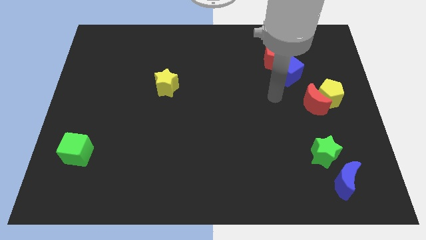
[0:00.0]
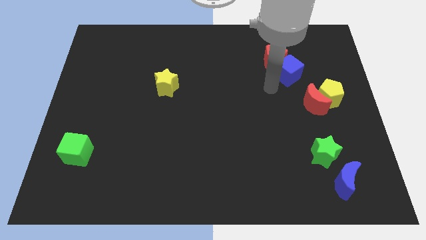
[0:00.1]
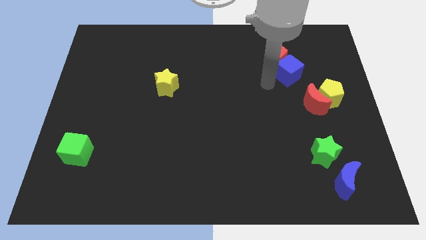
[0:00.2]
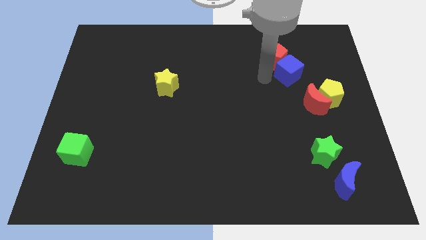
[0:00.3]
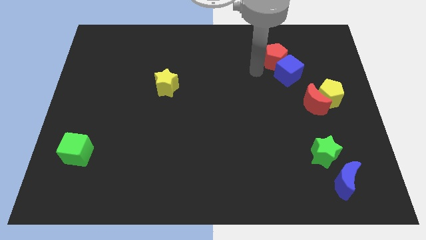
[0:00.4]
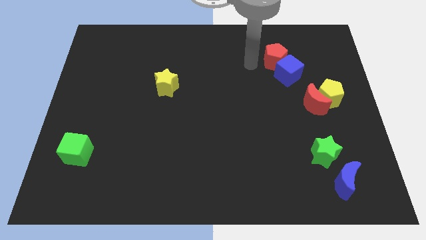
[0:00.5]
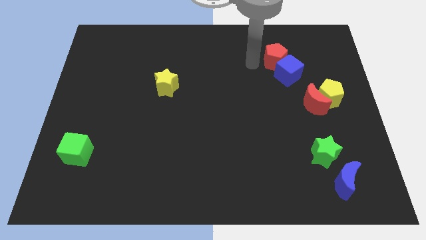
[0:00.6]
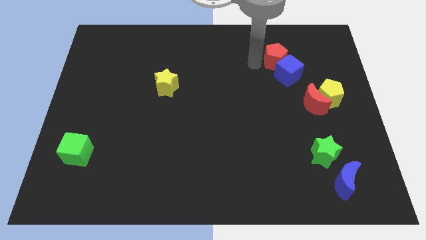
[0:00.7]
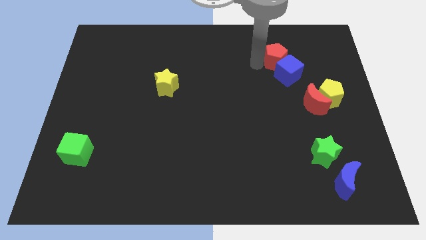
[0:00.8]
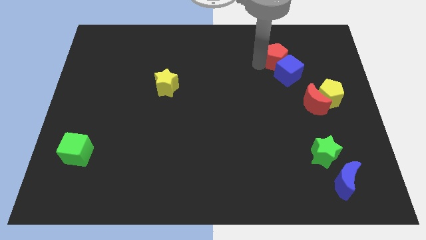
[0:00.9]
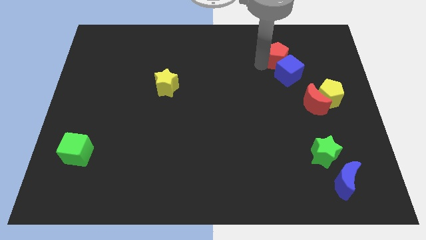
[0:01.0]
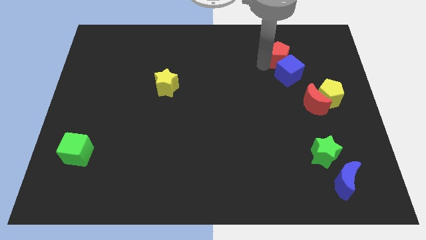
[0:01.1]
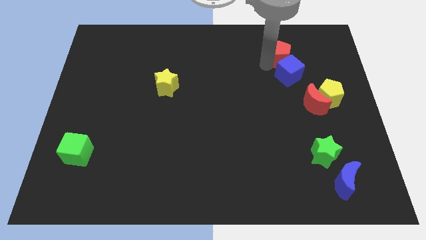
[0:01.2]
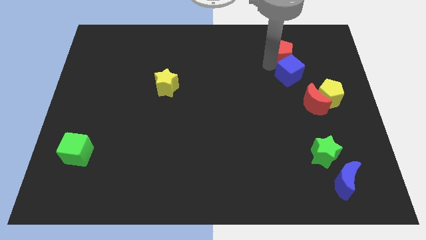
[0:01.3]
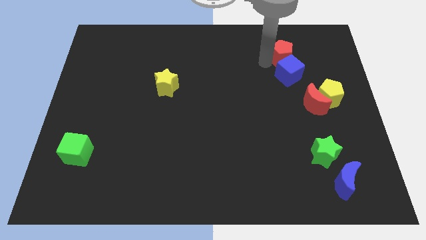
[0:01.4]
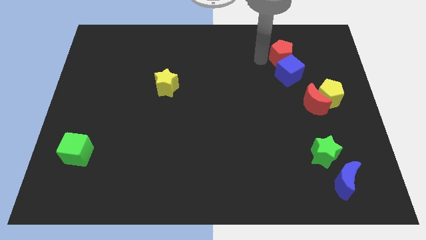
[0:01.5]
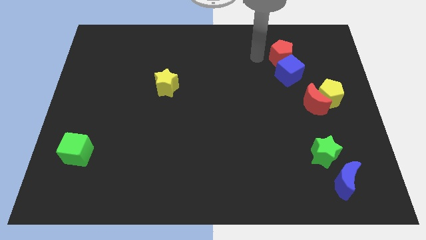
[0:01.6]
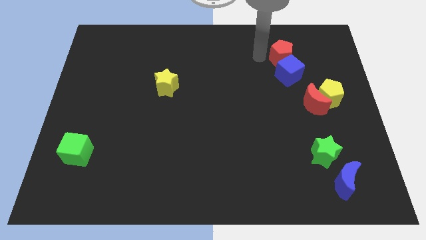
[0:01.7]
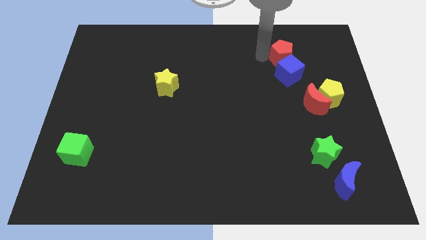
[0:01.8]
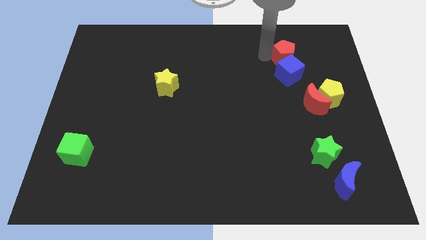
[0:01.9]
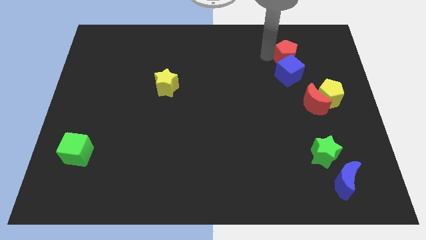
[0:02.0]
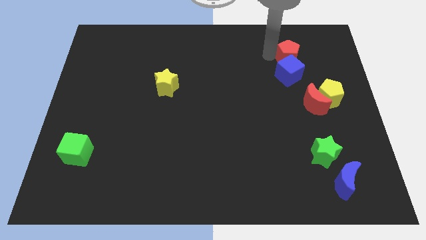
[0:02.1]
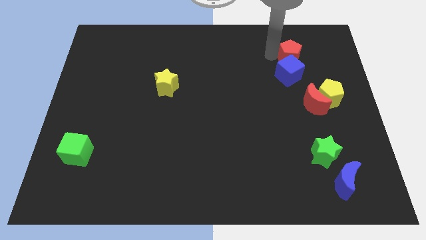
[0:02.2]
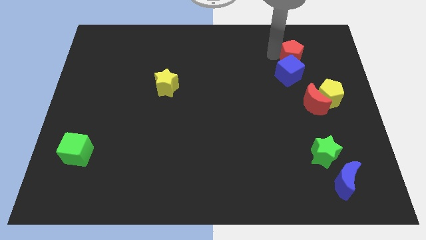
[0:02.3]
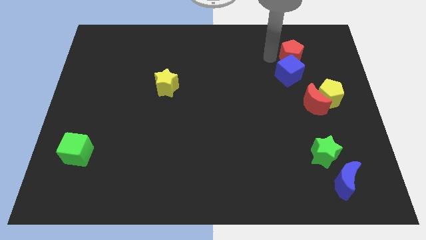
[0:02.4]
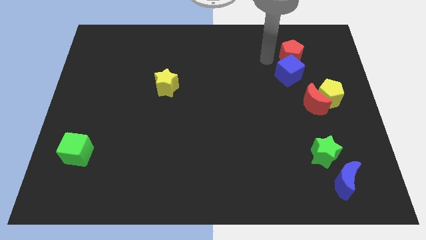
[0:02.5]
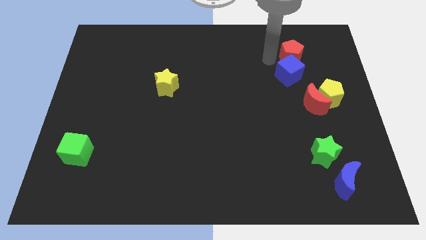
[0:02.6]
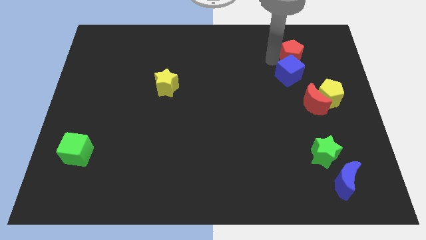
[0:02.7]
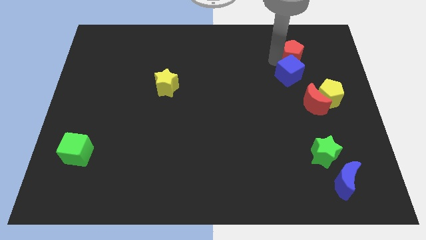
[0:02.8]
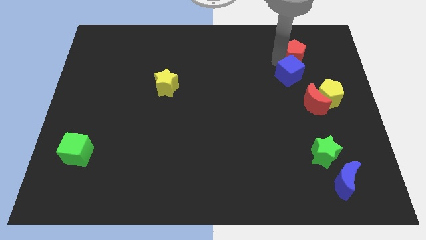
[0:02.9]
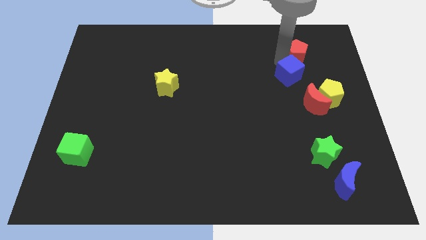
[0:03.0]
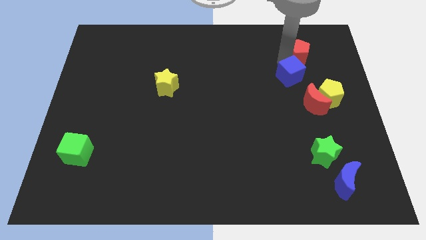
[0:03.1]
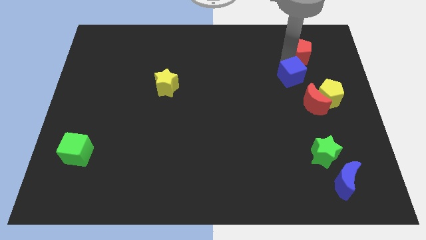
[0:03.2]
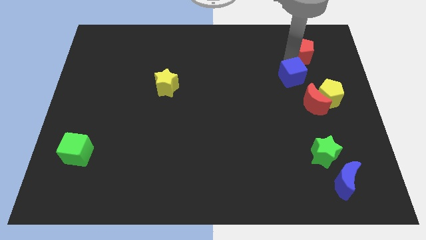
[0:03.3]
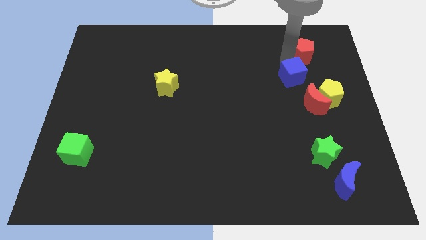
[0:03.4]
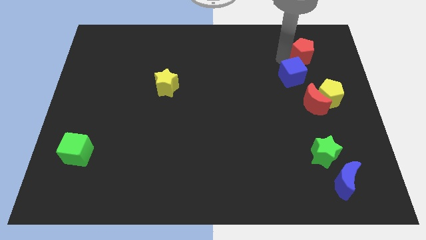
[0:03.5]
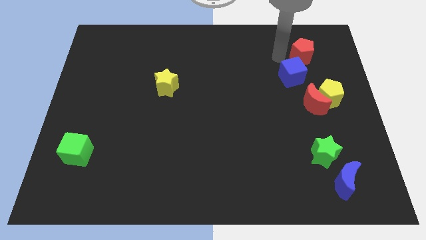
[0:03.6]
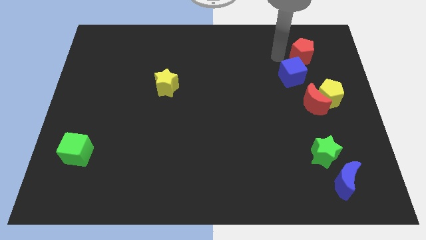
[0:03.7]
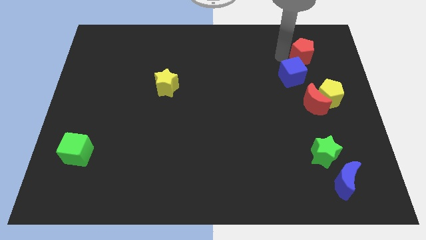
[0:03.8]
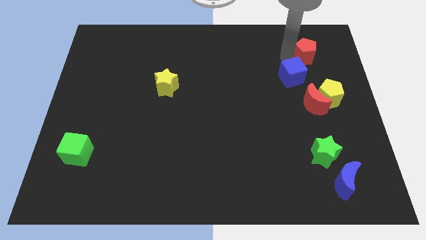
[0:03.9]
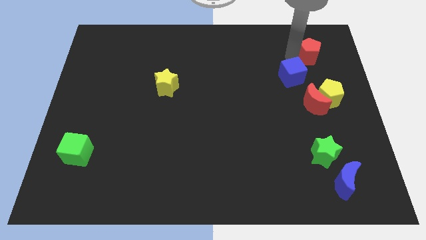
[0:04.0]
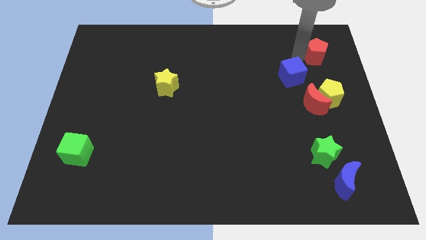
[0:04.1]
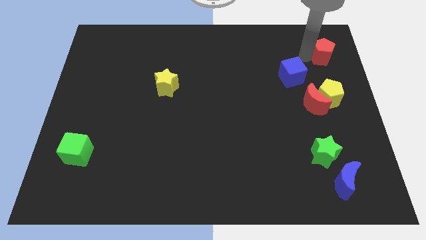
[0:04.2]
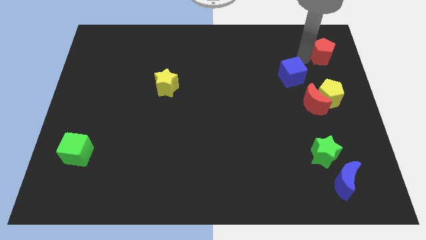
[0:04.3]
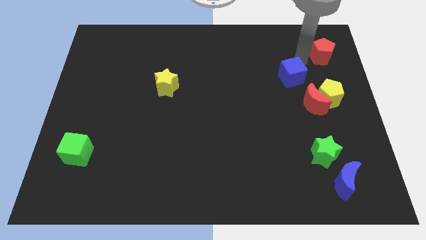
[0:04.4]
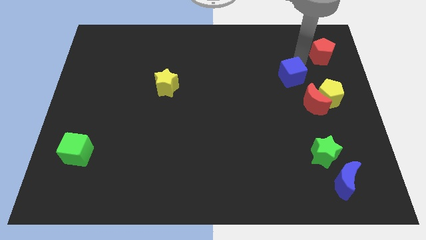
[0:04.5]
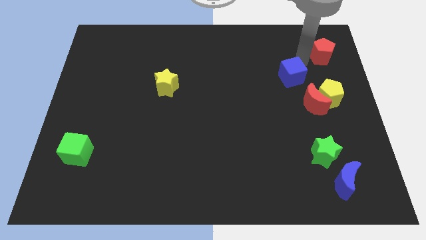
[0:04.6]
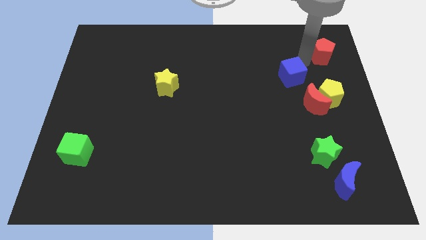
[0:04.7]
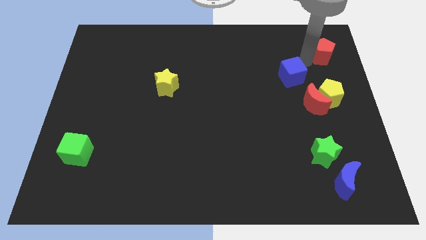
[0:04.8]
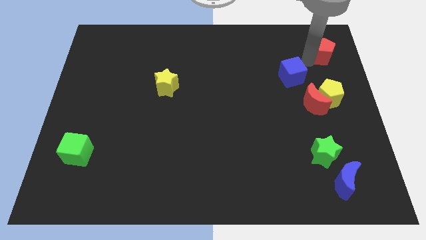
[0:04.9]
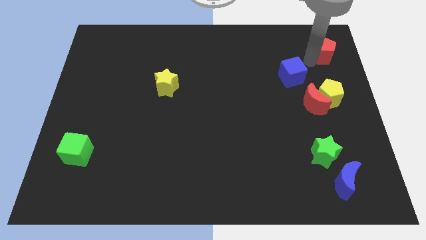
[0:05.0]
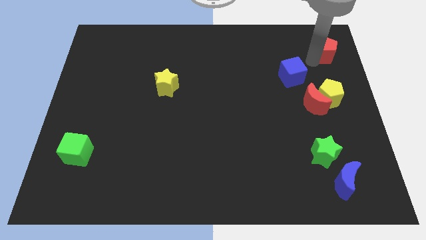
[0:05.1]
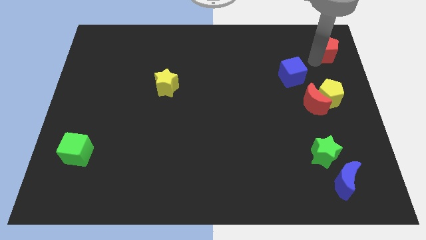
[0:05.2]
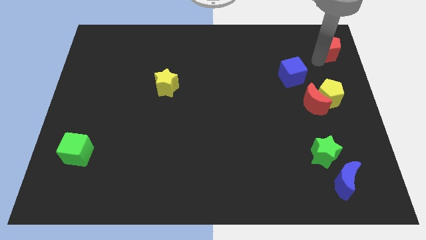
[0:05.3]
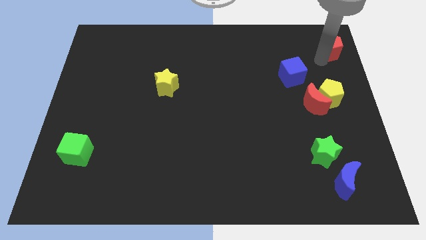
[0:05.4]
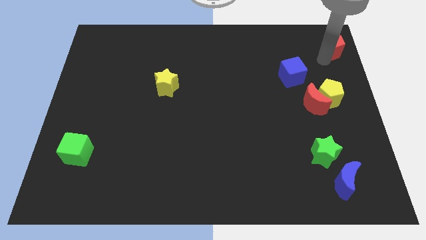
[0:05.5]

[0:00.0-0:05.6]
put the red pentagon to the top right corner

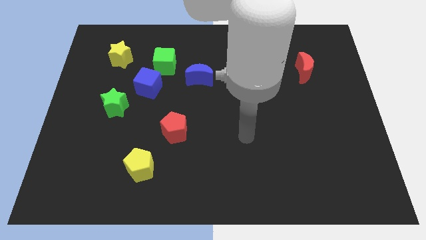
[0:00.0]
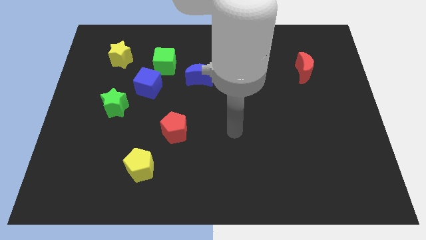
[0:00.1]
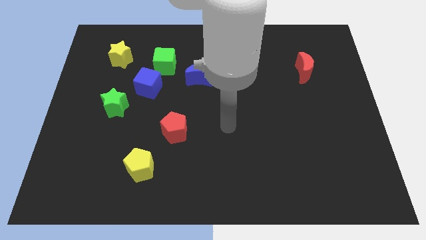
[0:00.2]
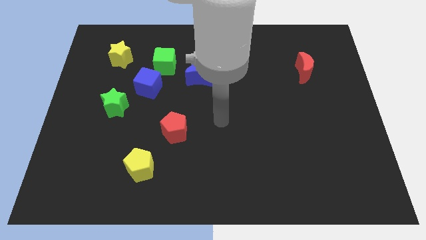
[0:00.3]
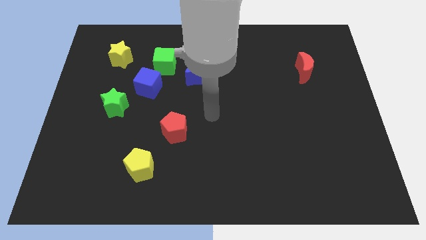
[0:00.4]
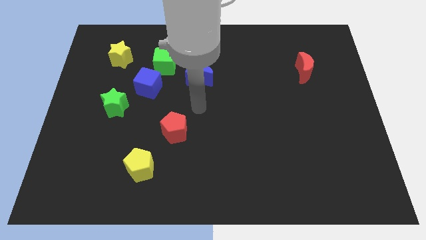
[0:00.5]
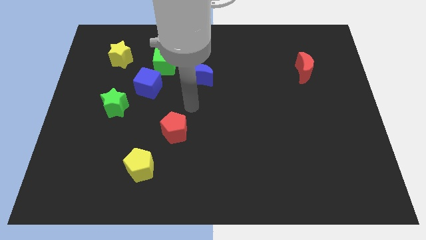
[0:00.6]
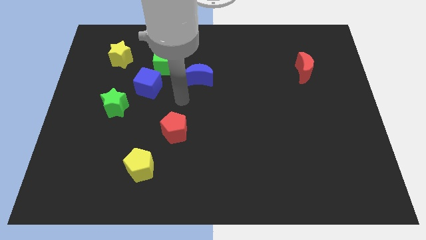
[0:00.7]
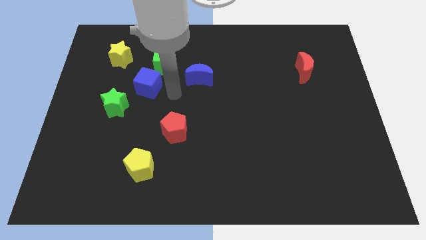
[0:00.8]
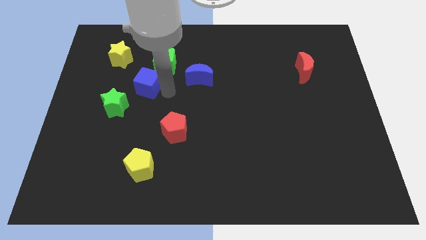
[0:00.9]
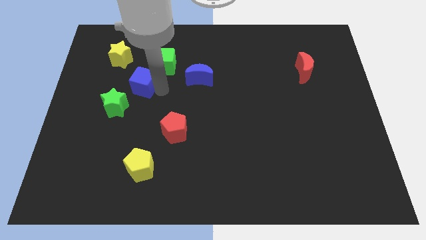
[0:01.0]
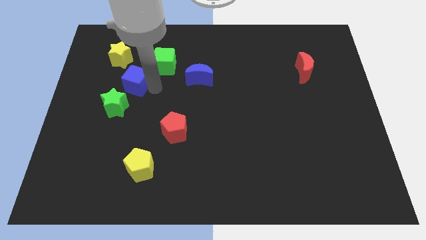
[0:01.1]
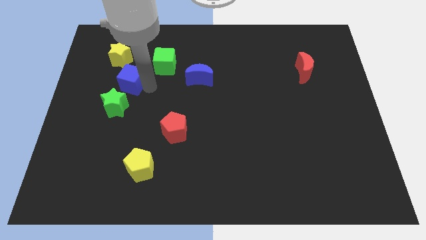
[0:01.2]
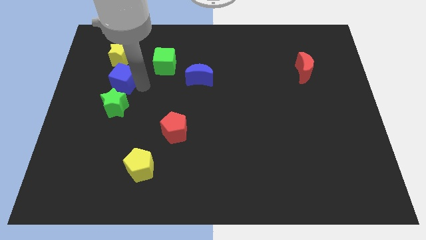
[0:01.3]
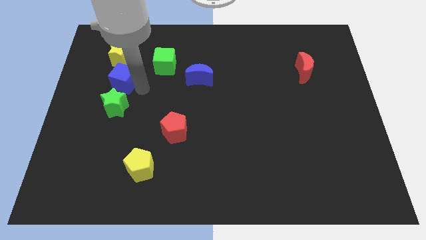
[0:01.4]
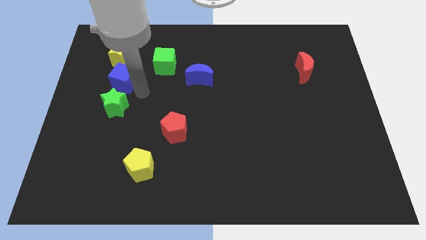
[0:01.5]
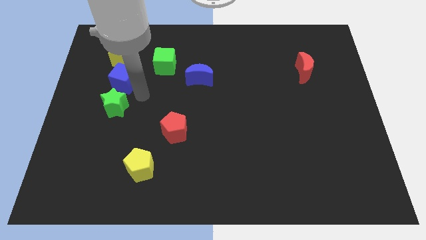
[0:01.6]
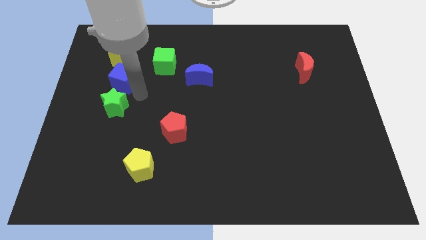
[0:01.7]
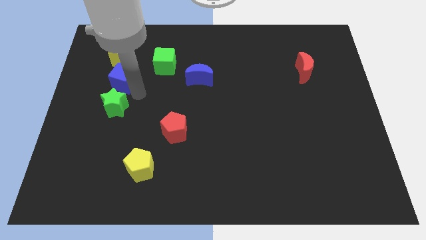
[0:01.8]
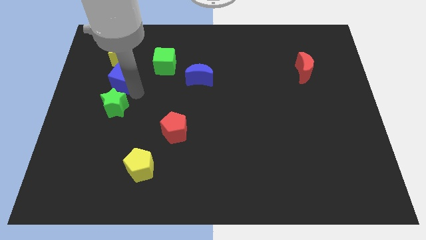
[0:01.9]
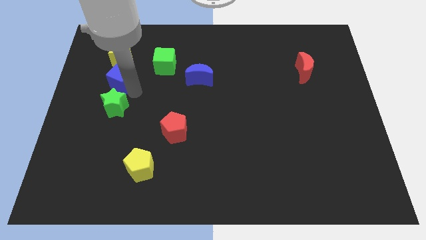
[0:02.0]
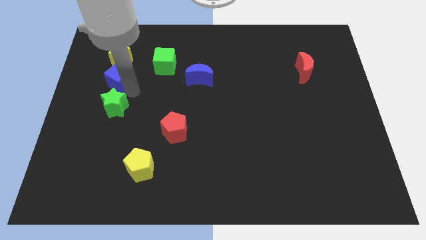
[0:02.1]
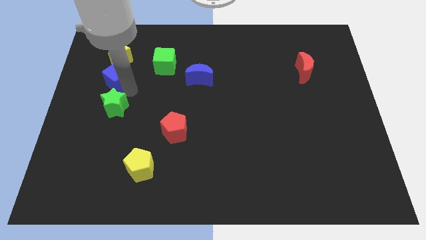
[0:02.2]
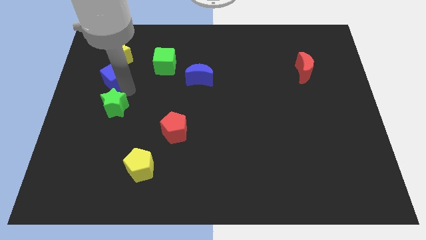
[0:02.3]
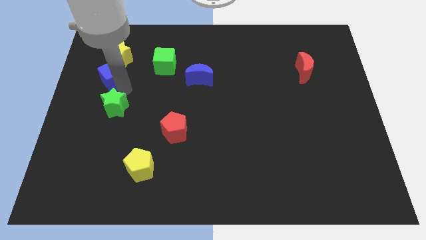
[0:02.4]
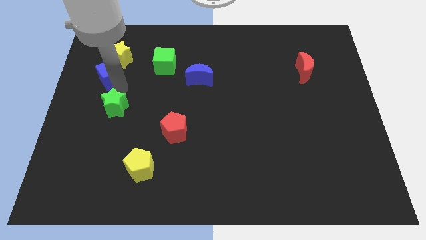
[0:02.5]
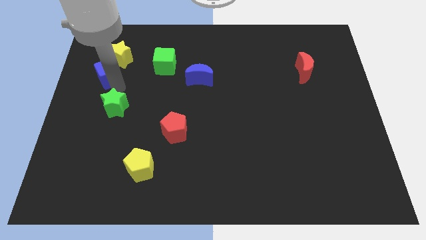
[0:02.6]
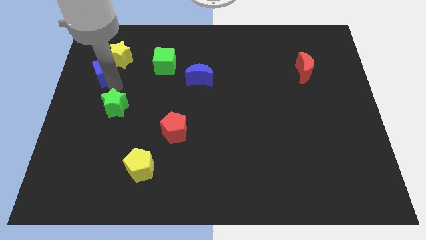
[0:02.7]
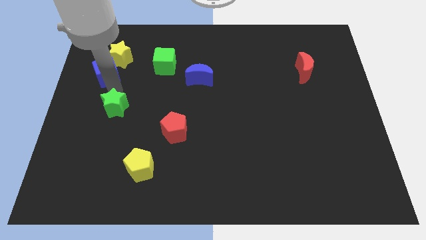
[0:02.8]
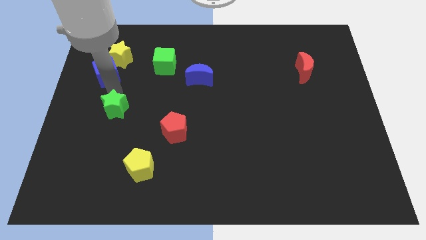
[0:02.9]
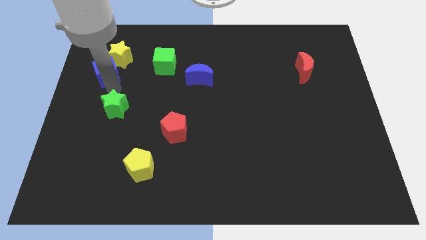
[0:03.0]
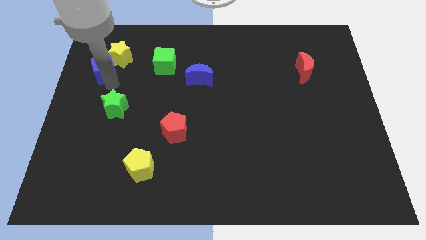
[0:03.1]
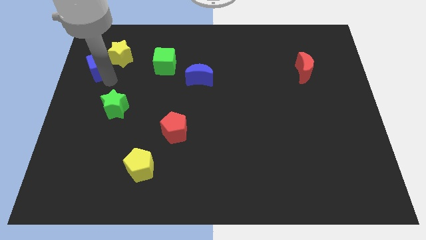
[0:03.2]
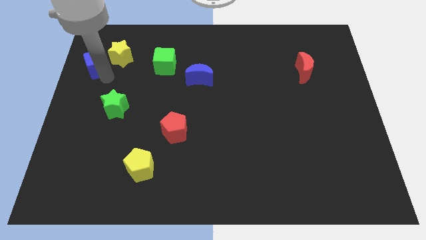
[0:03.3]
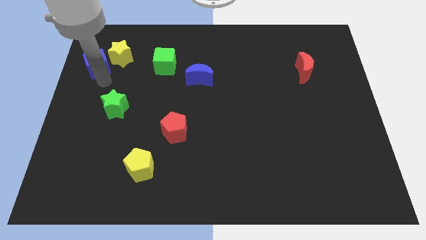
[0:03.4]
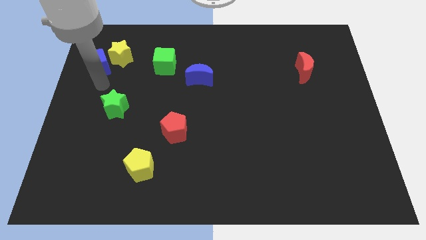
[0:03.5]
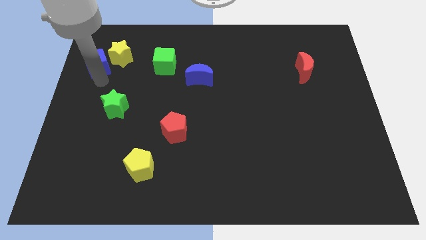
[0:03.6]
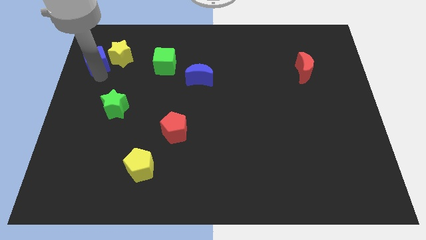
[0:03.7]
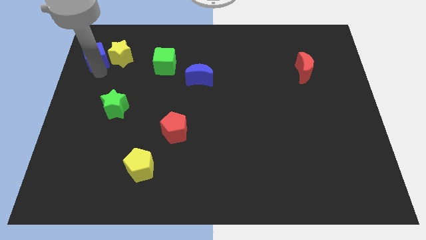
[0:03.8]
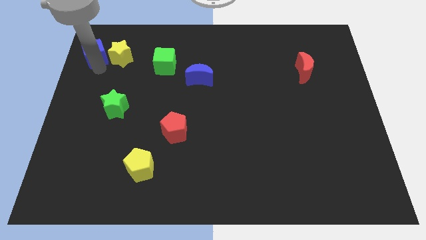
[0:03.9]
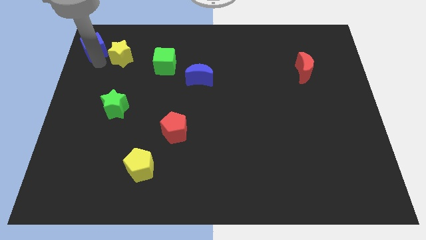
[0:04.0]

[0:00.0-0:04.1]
slide the blue cube to the top left corner
